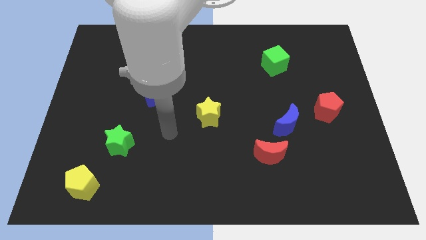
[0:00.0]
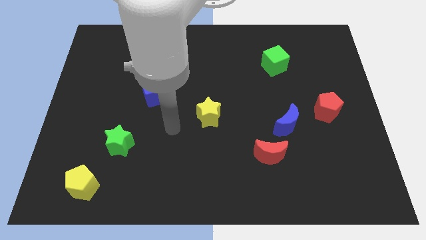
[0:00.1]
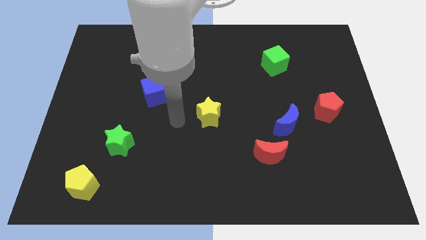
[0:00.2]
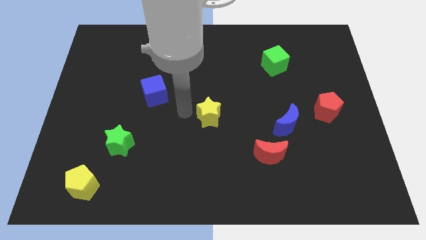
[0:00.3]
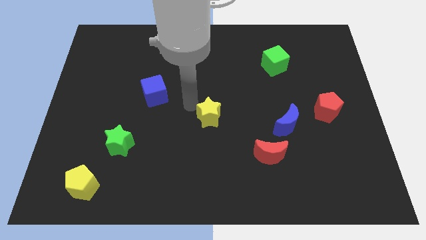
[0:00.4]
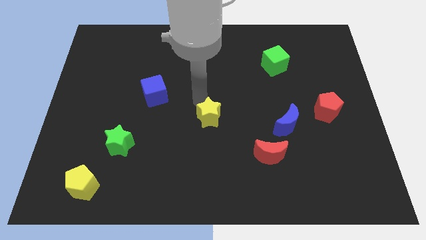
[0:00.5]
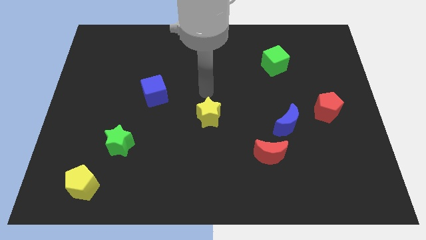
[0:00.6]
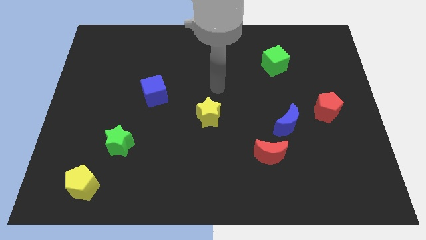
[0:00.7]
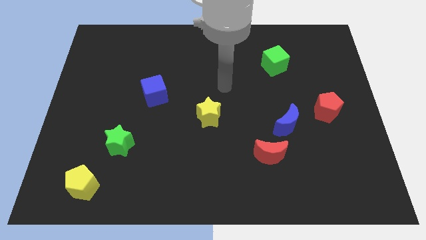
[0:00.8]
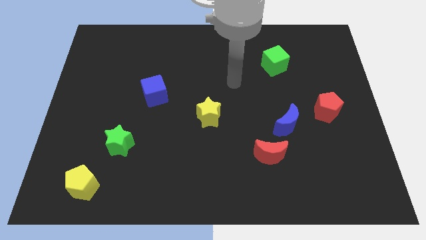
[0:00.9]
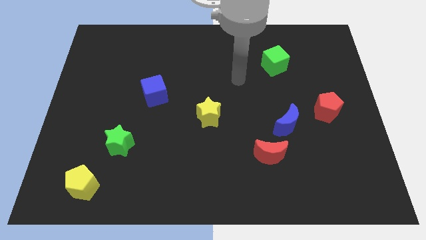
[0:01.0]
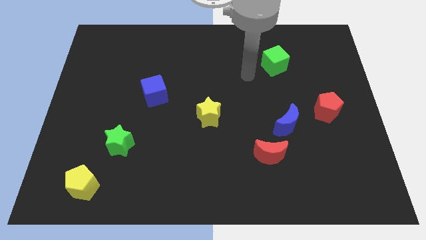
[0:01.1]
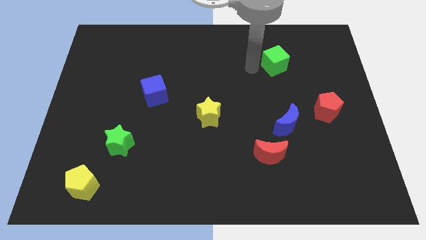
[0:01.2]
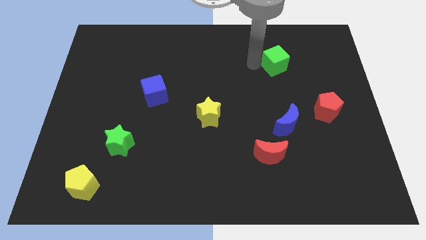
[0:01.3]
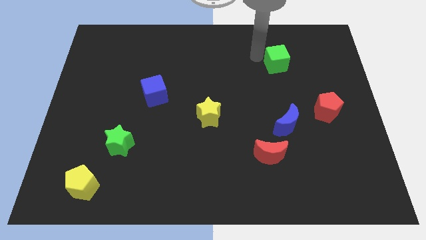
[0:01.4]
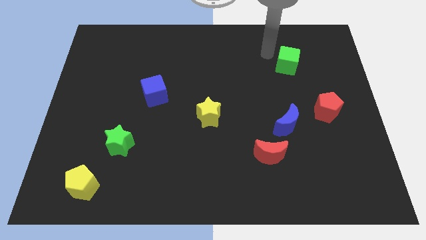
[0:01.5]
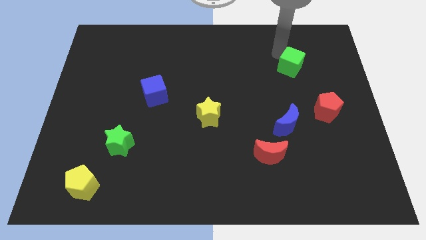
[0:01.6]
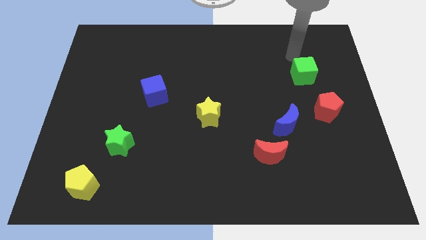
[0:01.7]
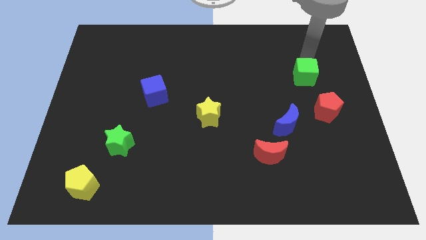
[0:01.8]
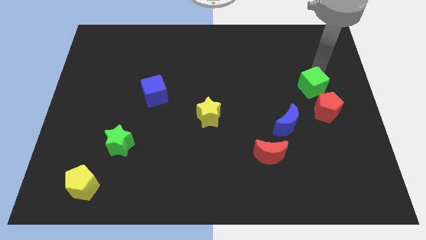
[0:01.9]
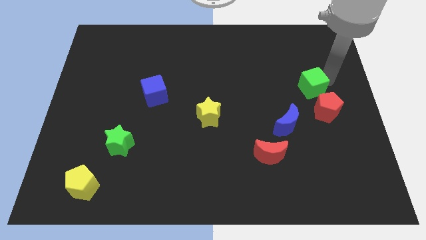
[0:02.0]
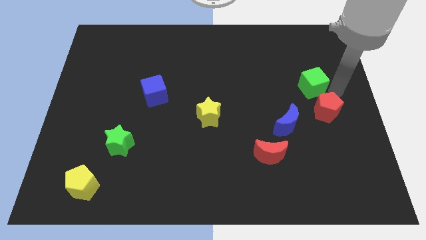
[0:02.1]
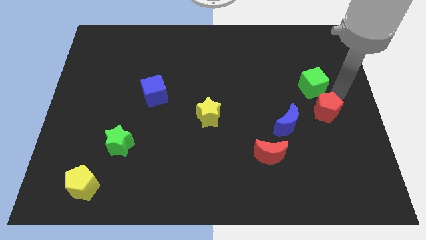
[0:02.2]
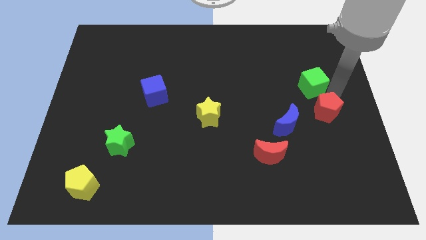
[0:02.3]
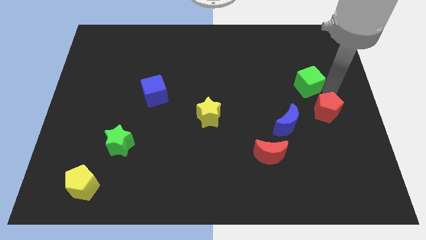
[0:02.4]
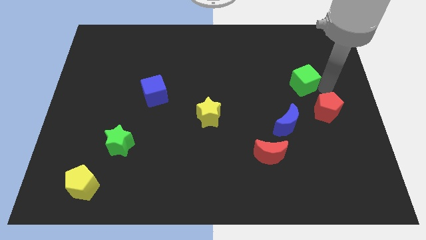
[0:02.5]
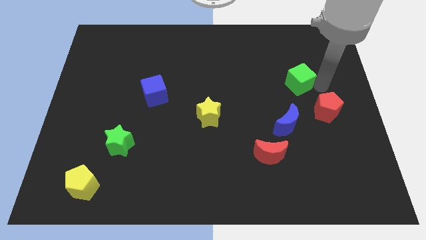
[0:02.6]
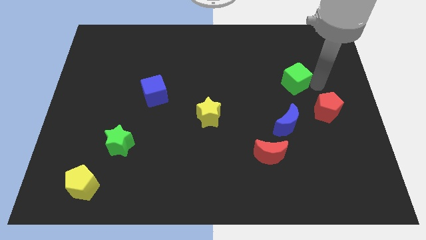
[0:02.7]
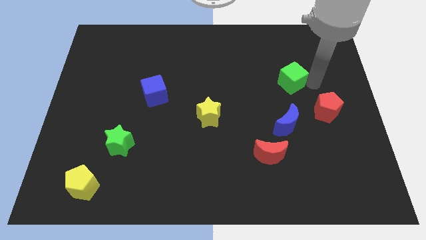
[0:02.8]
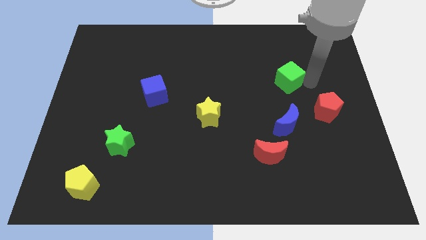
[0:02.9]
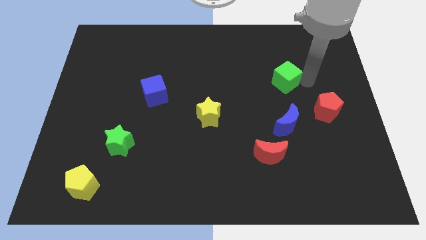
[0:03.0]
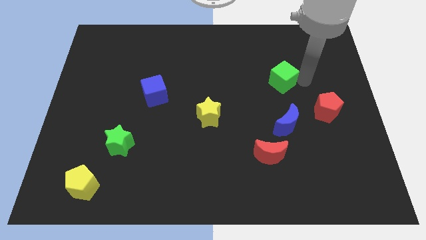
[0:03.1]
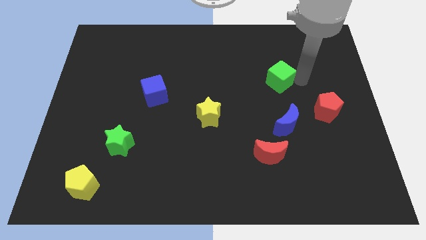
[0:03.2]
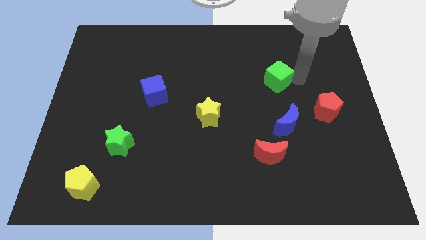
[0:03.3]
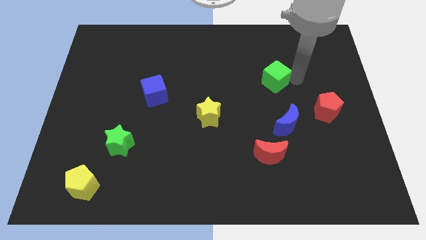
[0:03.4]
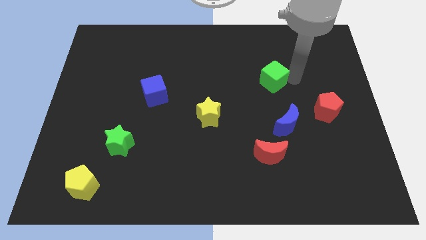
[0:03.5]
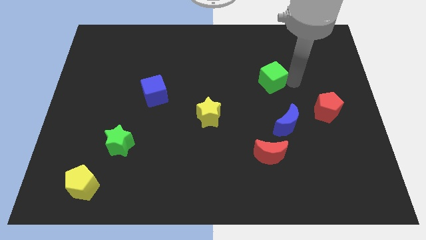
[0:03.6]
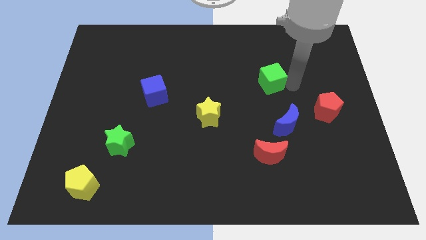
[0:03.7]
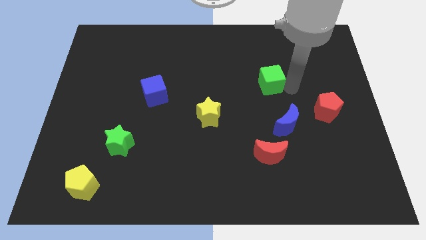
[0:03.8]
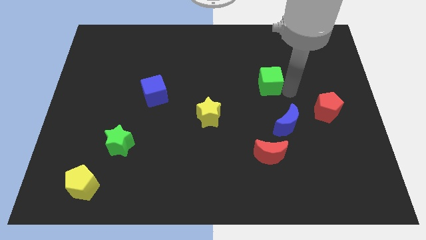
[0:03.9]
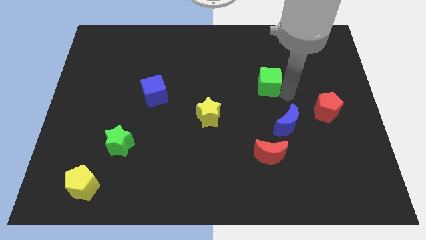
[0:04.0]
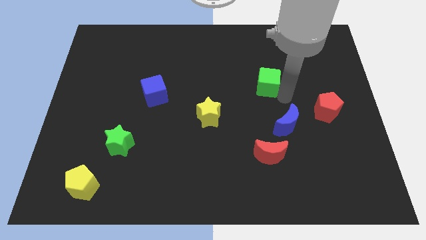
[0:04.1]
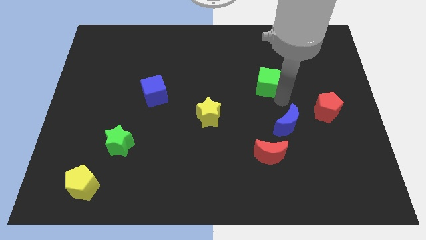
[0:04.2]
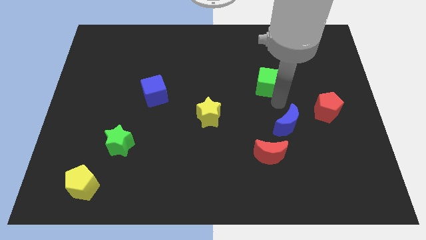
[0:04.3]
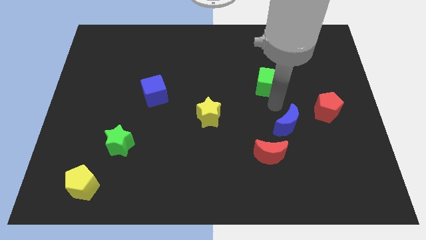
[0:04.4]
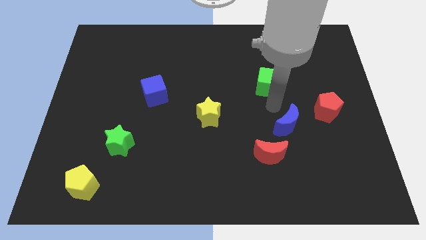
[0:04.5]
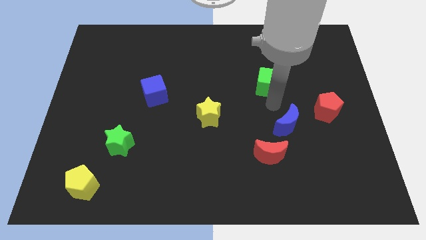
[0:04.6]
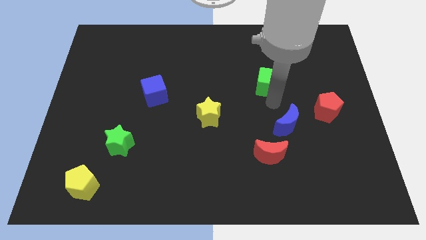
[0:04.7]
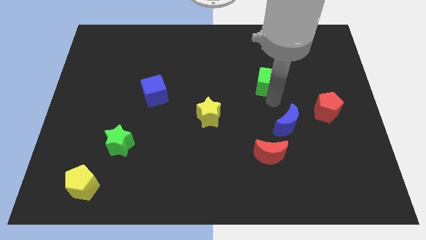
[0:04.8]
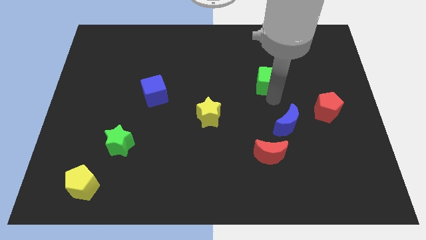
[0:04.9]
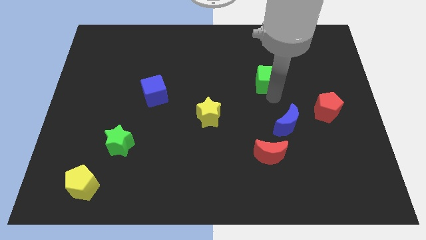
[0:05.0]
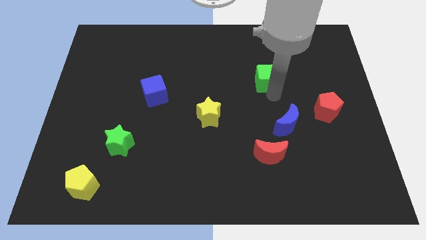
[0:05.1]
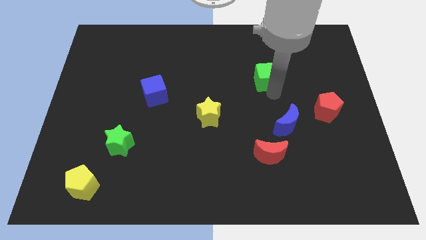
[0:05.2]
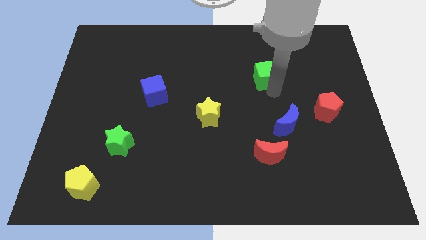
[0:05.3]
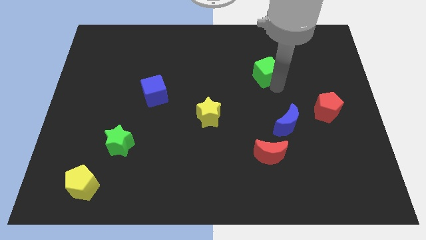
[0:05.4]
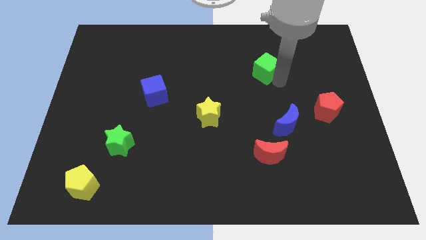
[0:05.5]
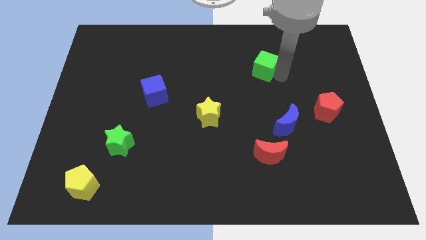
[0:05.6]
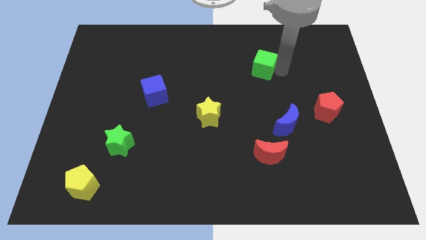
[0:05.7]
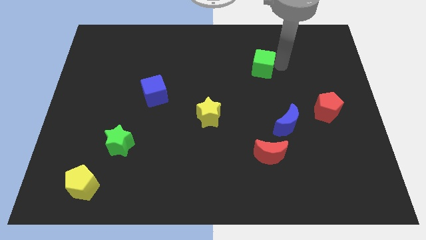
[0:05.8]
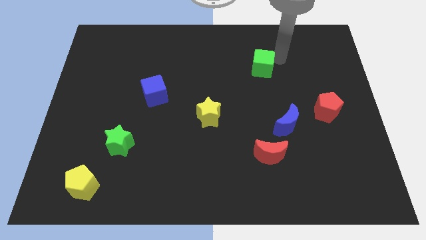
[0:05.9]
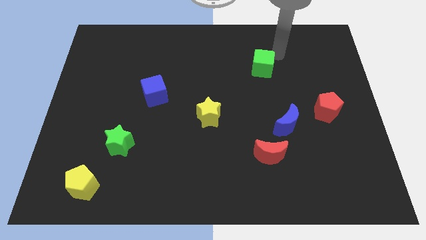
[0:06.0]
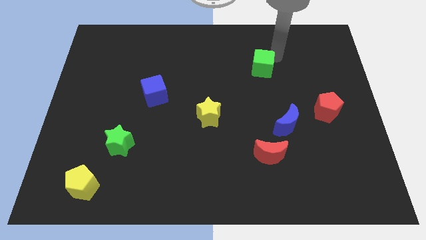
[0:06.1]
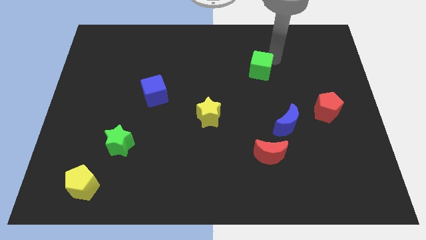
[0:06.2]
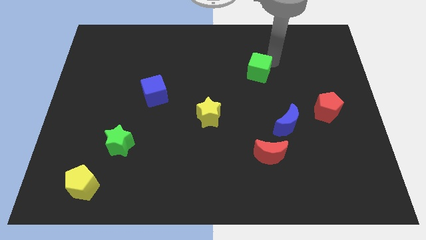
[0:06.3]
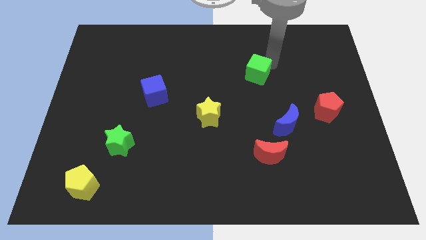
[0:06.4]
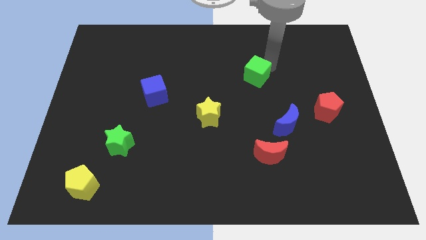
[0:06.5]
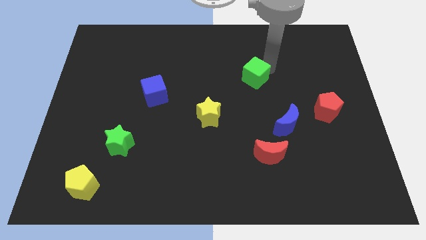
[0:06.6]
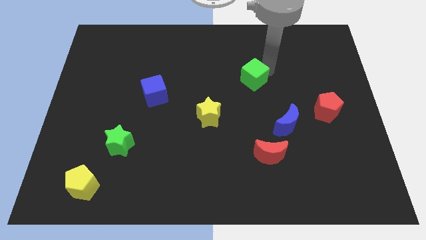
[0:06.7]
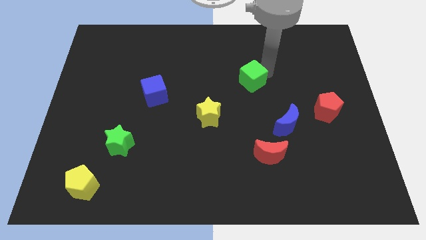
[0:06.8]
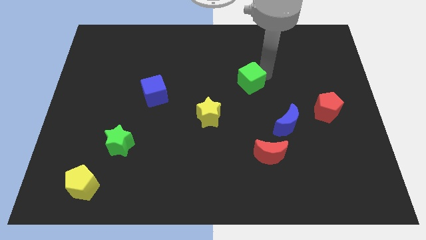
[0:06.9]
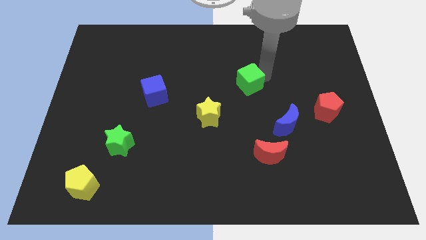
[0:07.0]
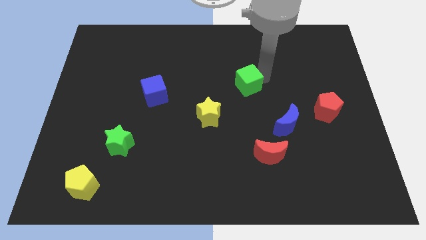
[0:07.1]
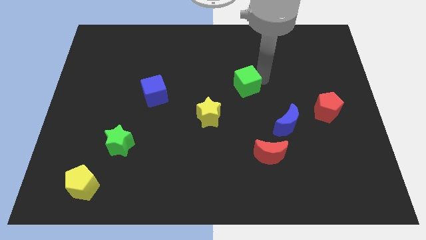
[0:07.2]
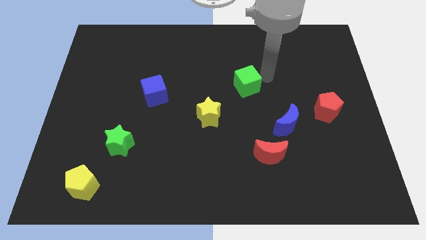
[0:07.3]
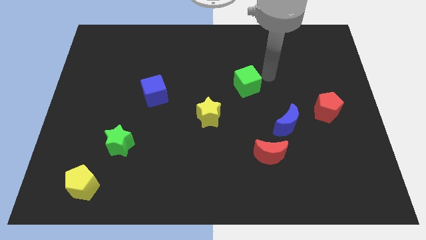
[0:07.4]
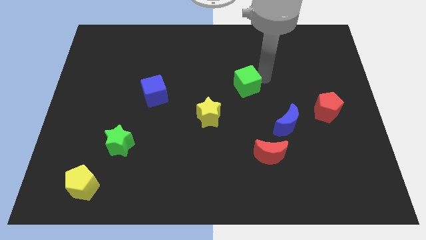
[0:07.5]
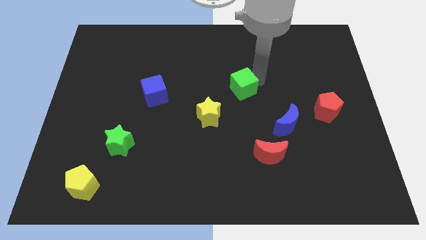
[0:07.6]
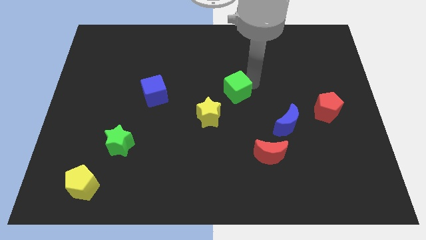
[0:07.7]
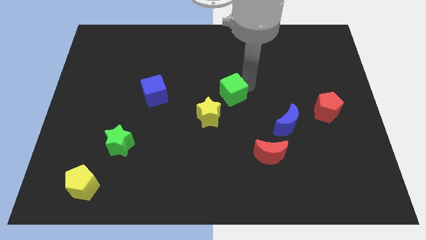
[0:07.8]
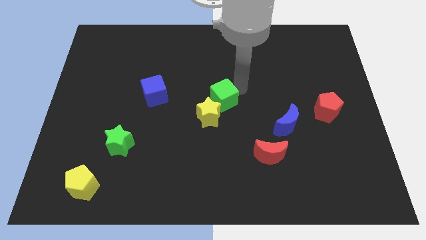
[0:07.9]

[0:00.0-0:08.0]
move the green cube next to the yellow star
